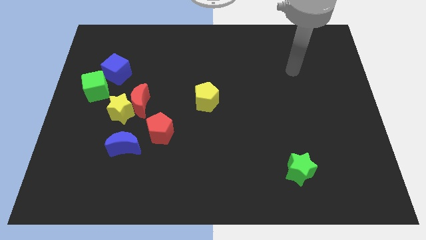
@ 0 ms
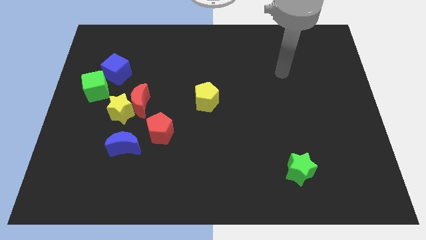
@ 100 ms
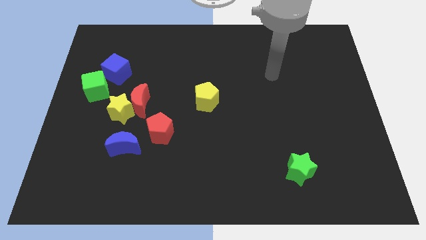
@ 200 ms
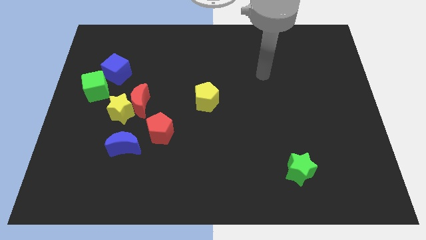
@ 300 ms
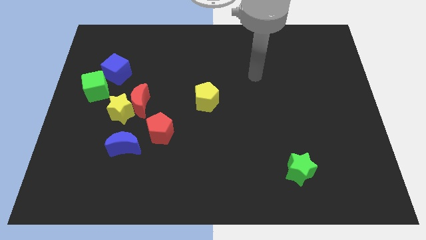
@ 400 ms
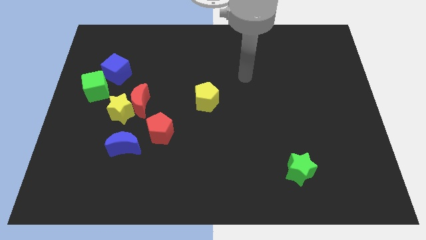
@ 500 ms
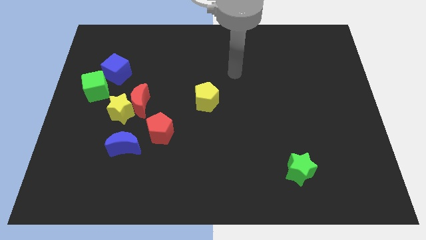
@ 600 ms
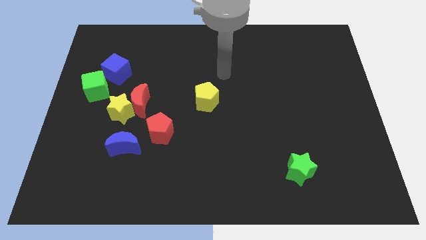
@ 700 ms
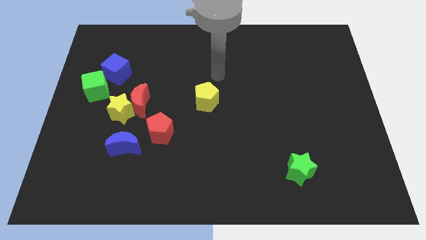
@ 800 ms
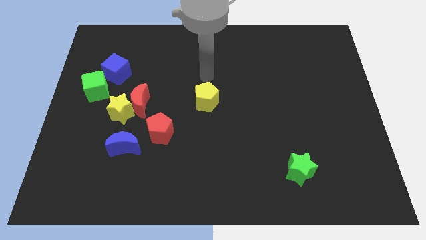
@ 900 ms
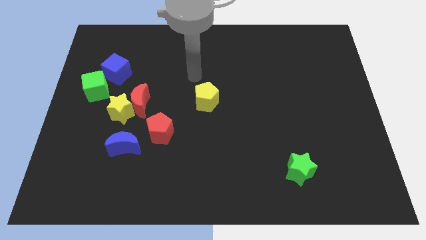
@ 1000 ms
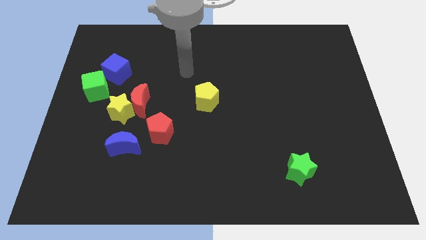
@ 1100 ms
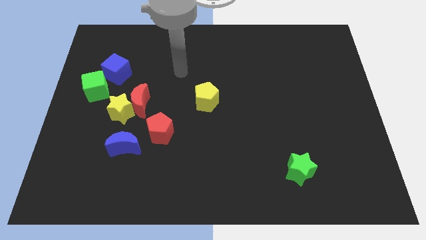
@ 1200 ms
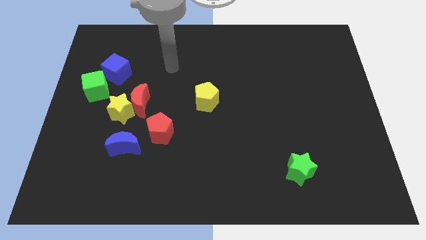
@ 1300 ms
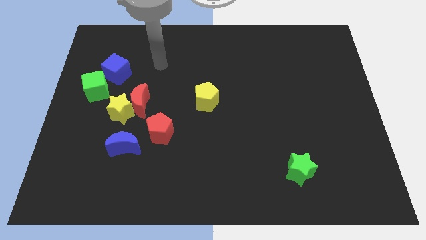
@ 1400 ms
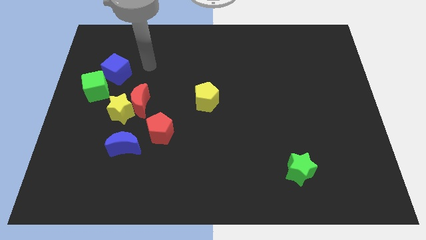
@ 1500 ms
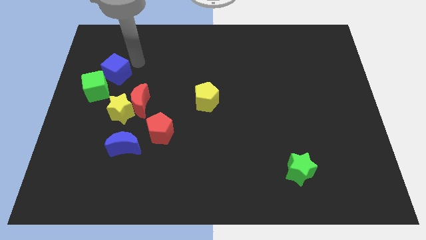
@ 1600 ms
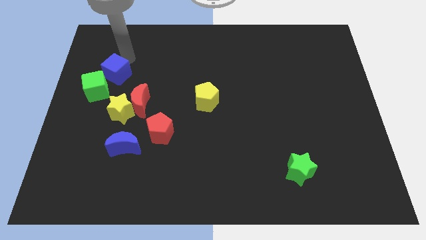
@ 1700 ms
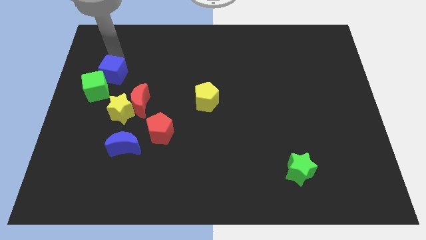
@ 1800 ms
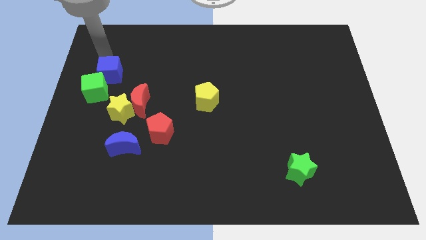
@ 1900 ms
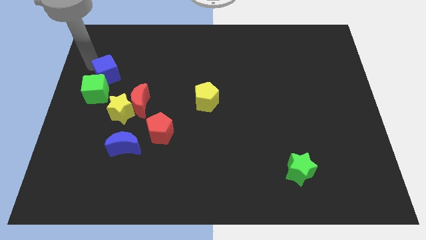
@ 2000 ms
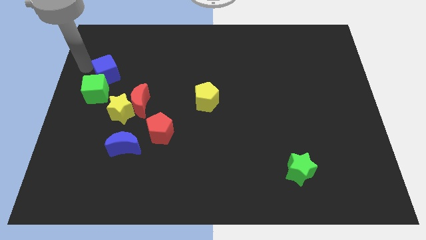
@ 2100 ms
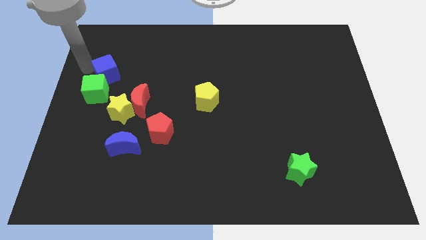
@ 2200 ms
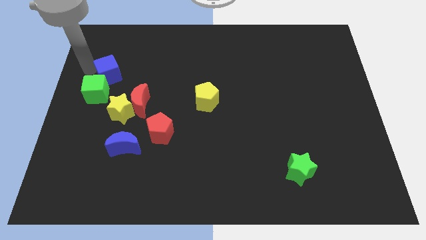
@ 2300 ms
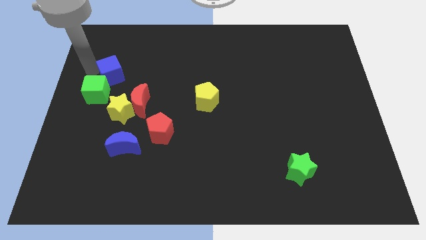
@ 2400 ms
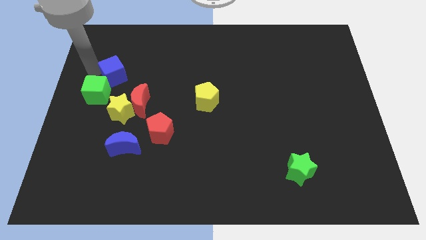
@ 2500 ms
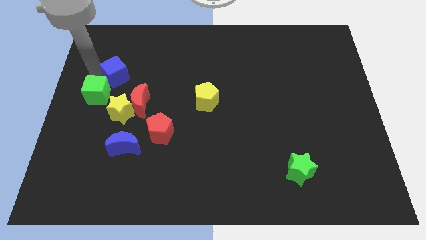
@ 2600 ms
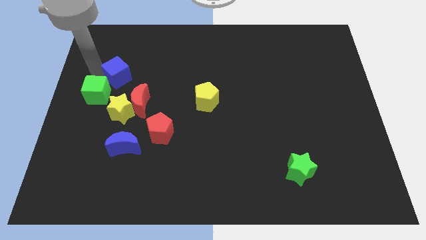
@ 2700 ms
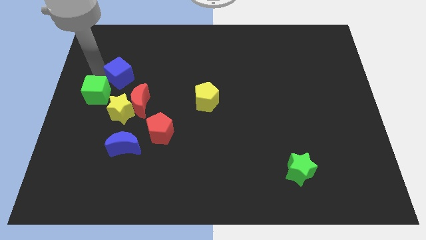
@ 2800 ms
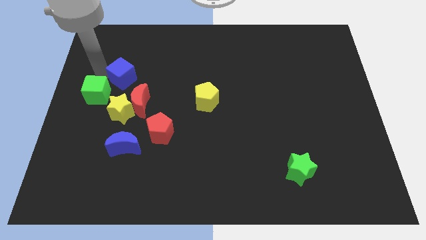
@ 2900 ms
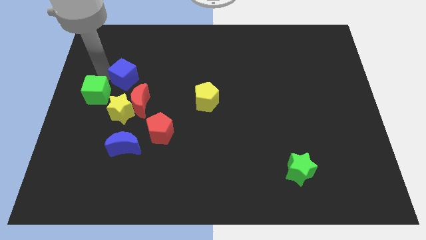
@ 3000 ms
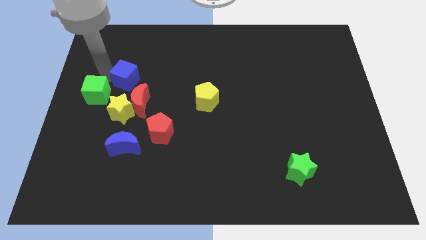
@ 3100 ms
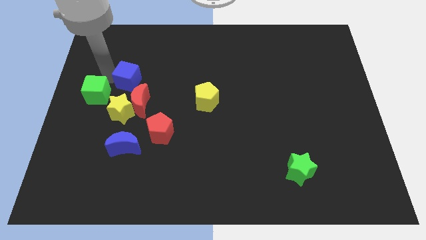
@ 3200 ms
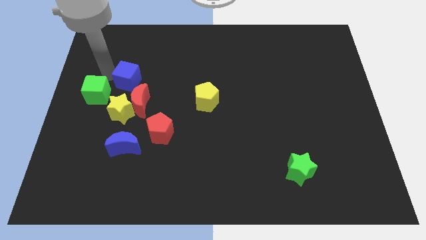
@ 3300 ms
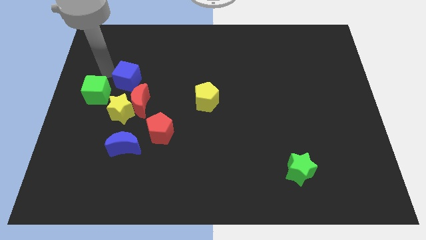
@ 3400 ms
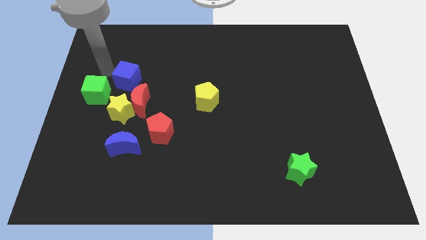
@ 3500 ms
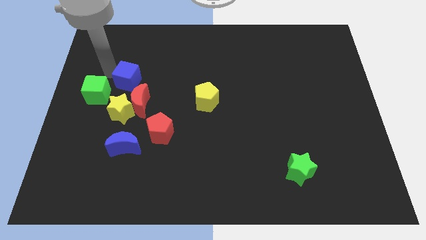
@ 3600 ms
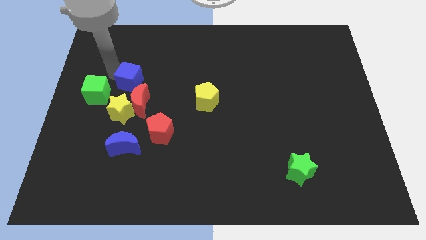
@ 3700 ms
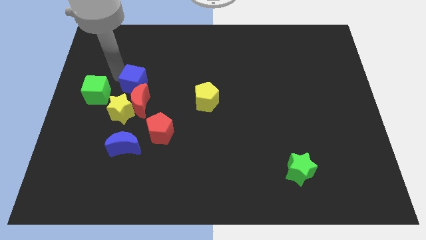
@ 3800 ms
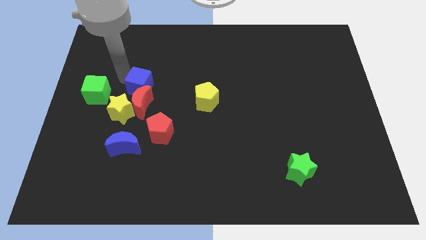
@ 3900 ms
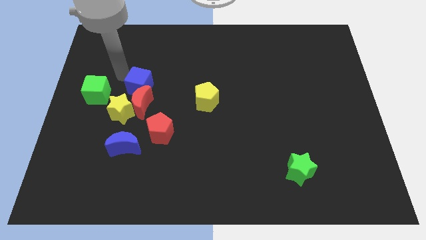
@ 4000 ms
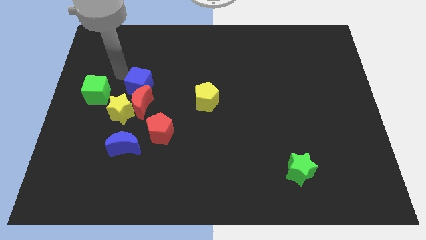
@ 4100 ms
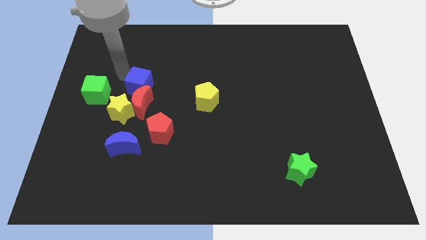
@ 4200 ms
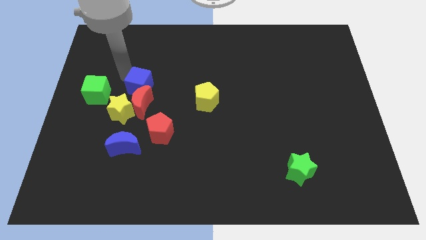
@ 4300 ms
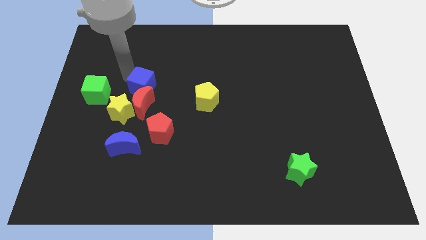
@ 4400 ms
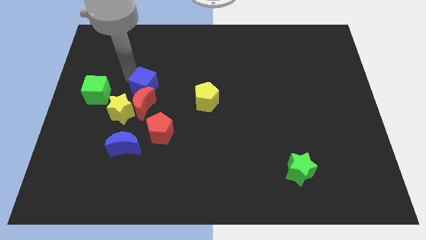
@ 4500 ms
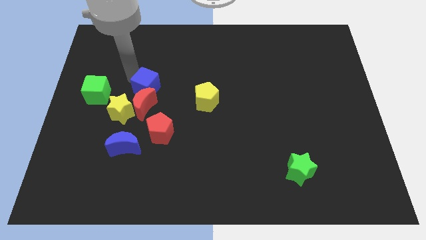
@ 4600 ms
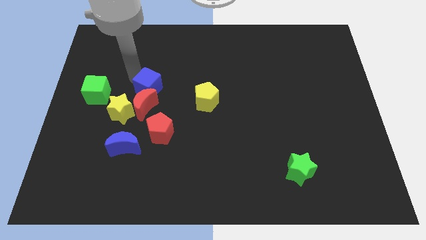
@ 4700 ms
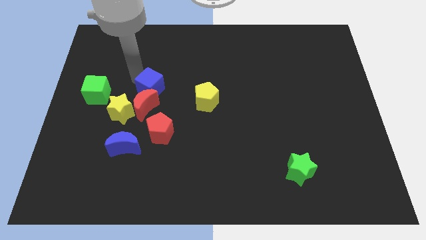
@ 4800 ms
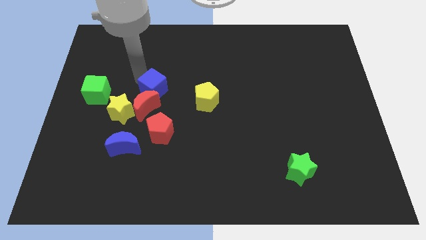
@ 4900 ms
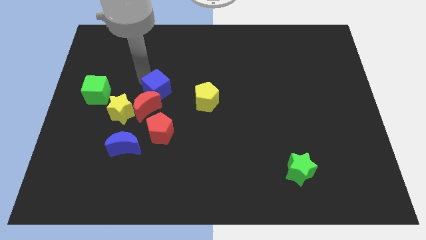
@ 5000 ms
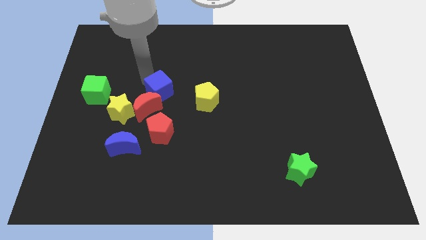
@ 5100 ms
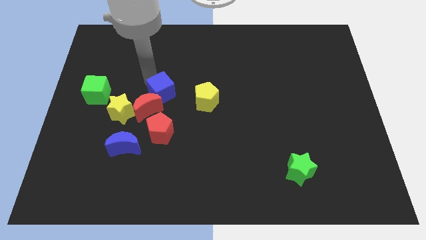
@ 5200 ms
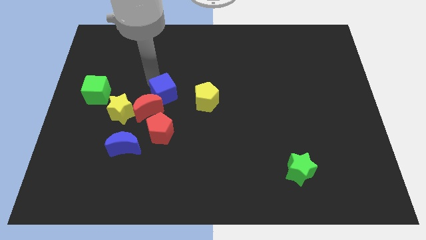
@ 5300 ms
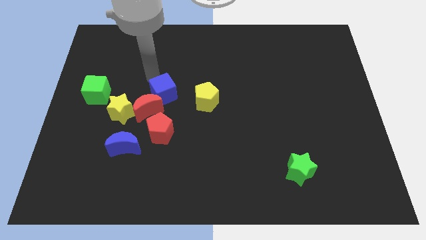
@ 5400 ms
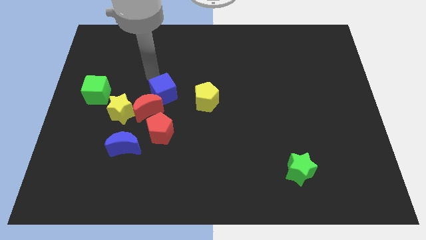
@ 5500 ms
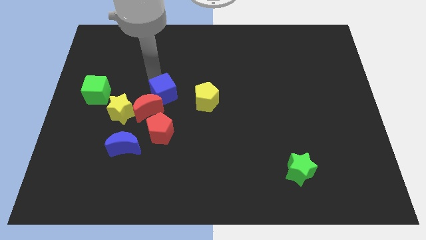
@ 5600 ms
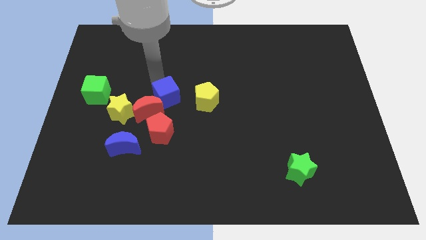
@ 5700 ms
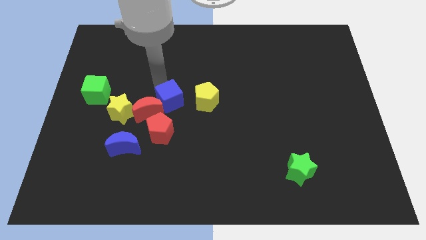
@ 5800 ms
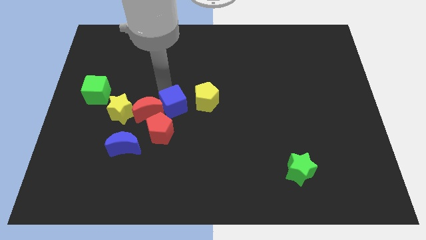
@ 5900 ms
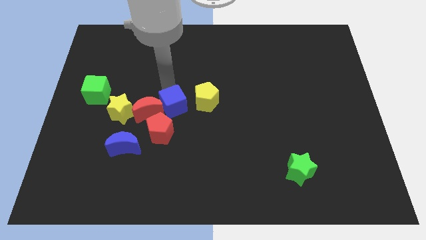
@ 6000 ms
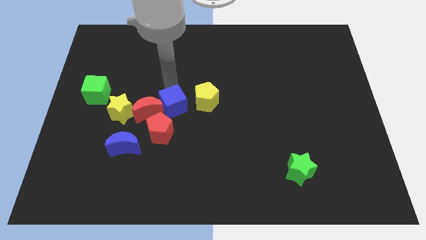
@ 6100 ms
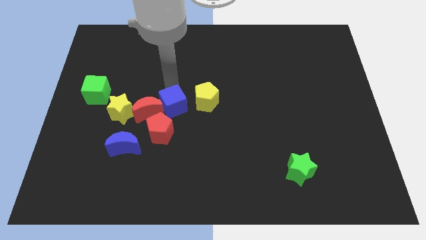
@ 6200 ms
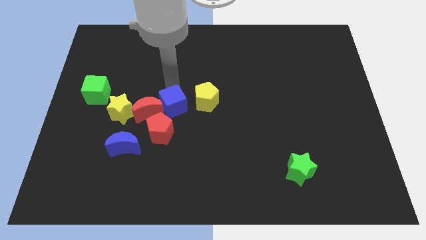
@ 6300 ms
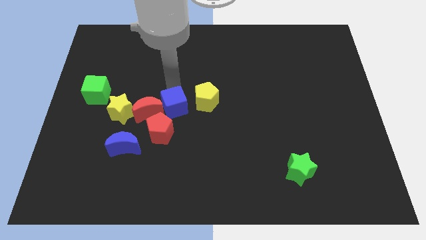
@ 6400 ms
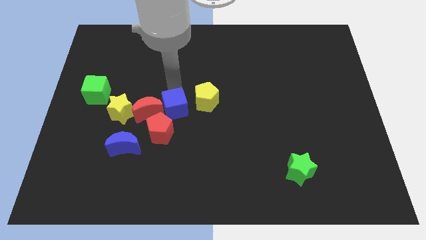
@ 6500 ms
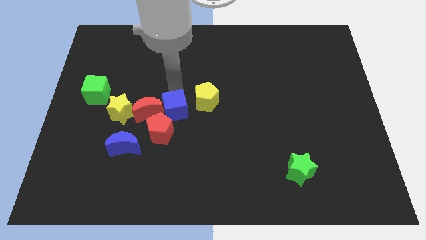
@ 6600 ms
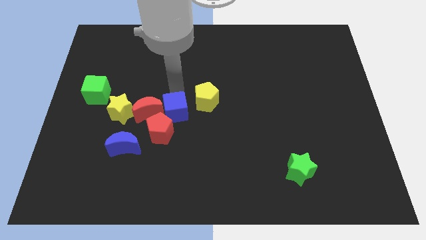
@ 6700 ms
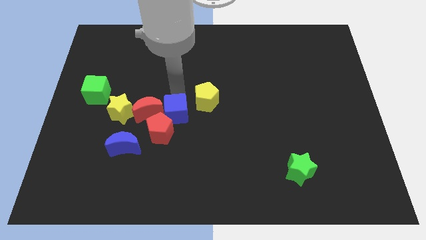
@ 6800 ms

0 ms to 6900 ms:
move the blue cube diagonally downwards and to the right

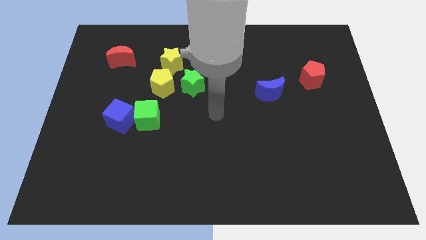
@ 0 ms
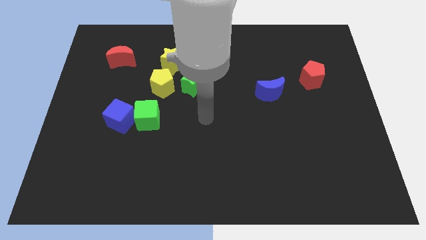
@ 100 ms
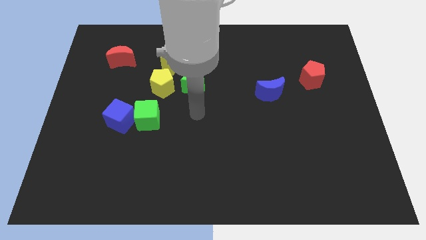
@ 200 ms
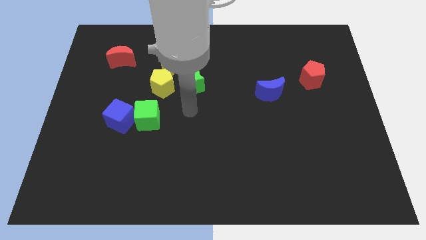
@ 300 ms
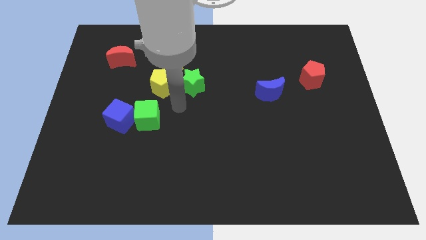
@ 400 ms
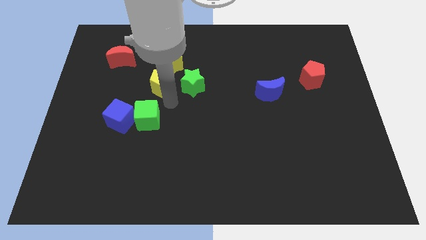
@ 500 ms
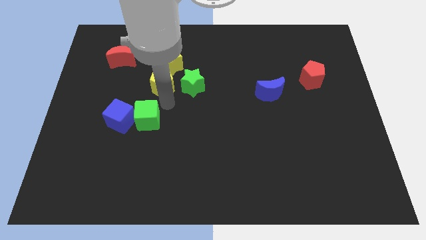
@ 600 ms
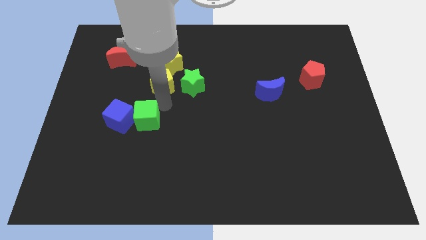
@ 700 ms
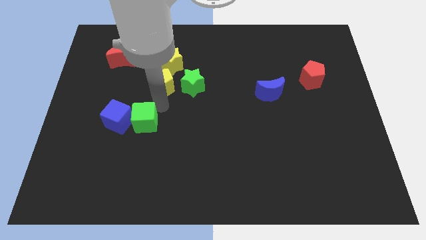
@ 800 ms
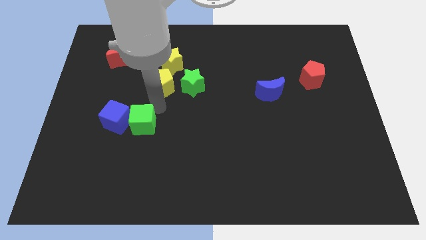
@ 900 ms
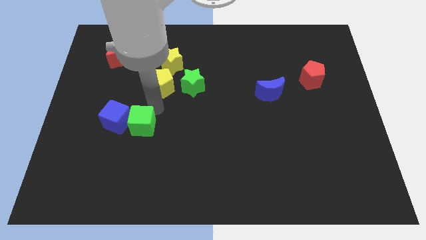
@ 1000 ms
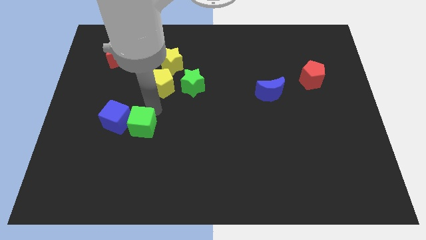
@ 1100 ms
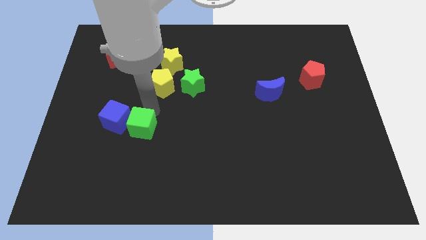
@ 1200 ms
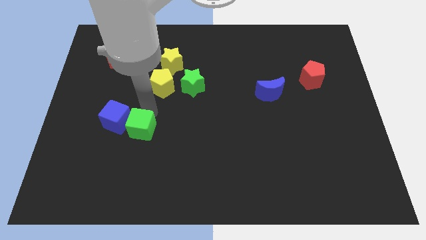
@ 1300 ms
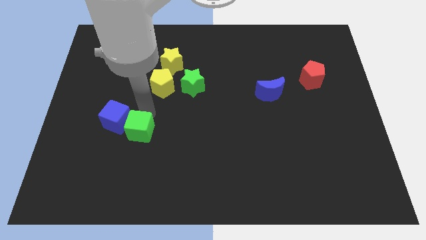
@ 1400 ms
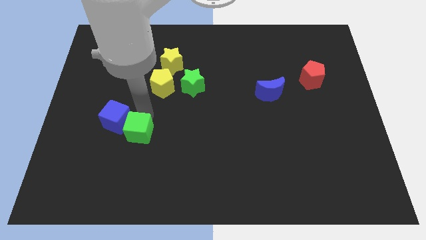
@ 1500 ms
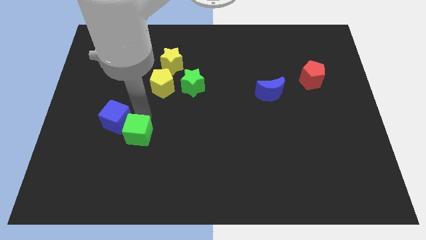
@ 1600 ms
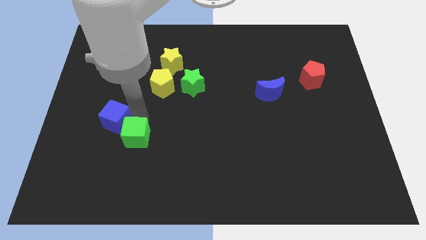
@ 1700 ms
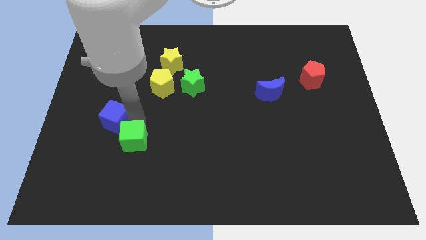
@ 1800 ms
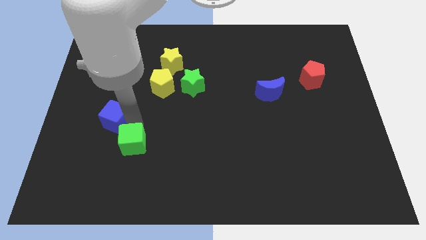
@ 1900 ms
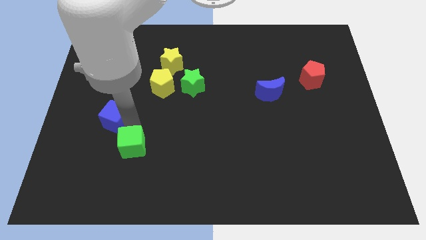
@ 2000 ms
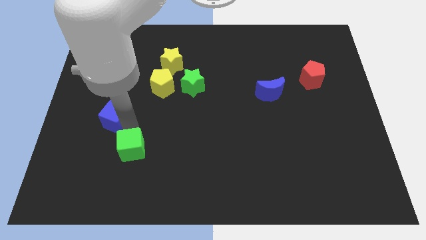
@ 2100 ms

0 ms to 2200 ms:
slightly move the green cube downwards and to the left diagonally
